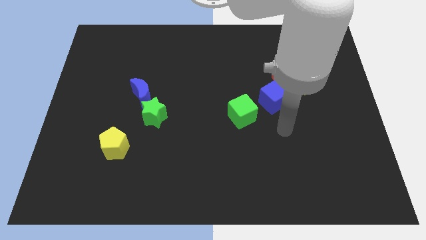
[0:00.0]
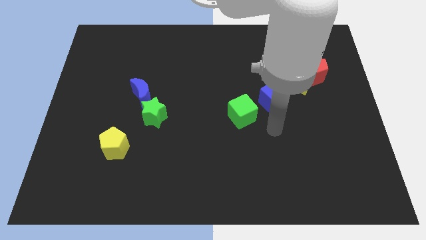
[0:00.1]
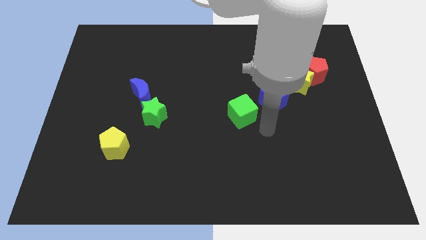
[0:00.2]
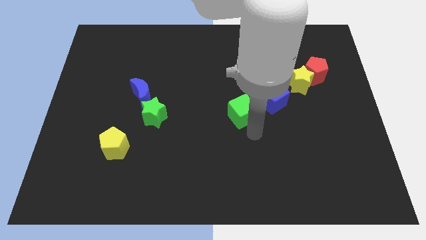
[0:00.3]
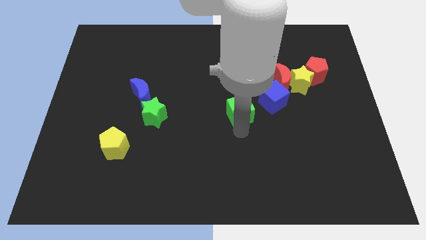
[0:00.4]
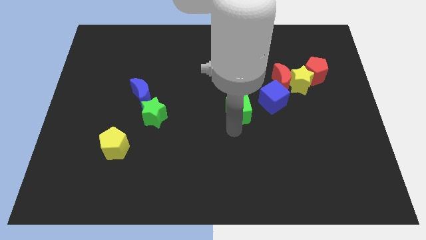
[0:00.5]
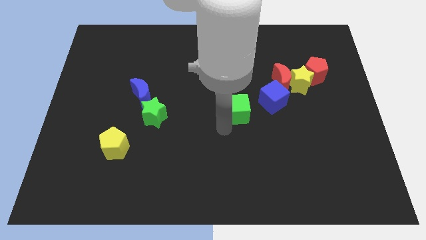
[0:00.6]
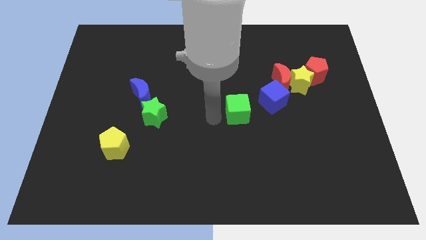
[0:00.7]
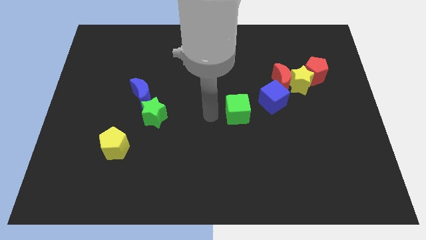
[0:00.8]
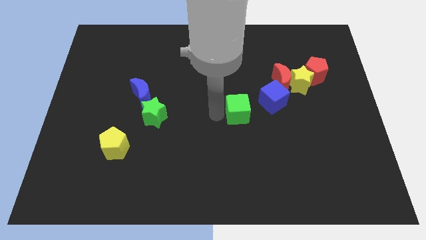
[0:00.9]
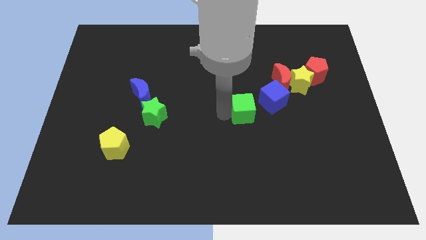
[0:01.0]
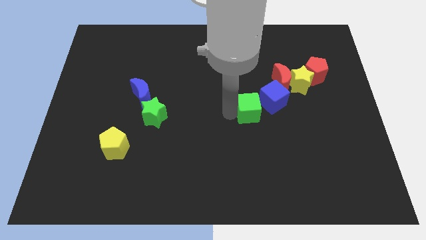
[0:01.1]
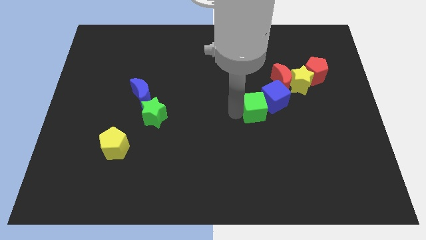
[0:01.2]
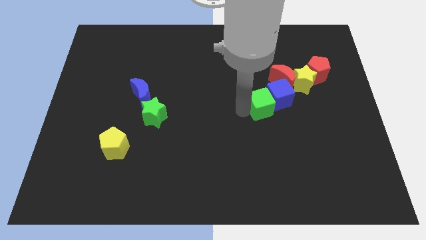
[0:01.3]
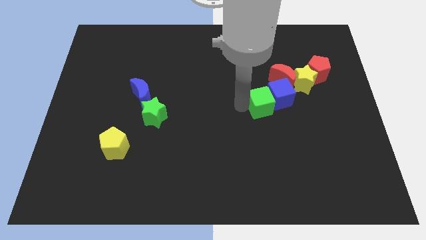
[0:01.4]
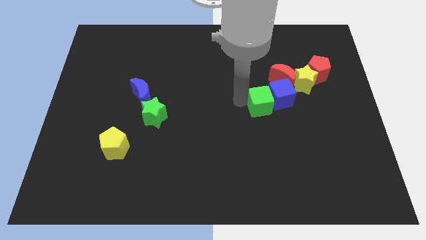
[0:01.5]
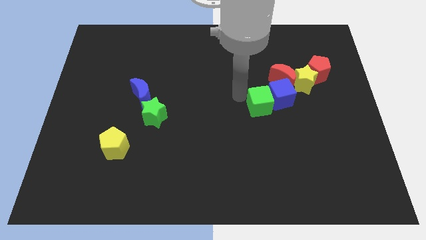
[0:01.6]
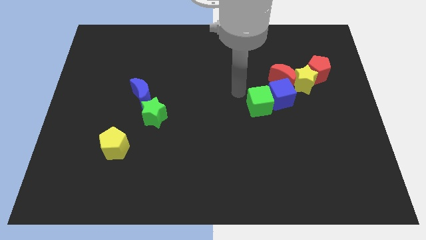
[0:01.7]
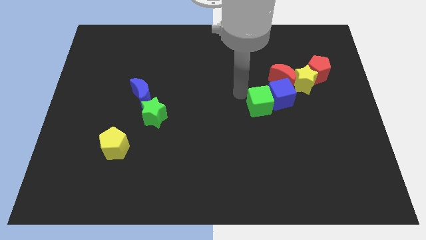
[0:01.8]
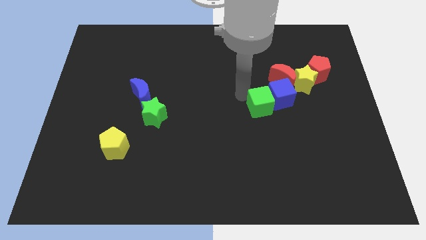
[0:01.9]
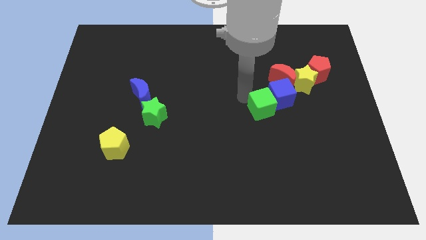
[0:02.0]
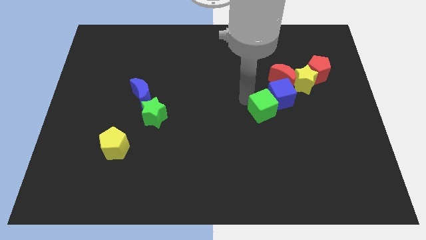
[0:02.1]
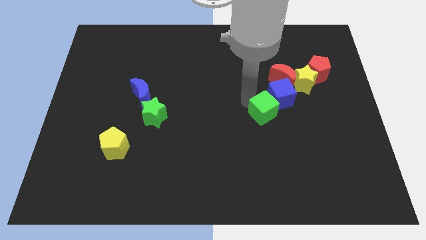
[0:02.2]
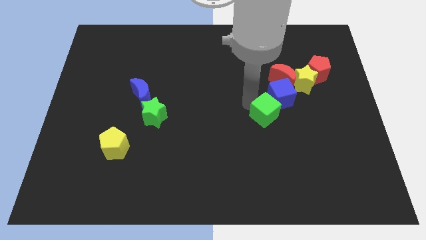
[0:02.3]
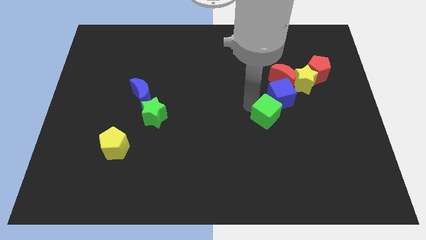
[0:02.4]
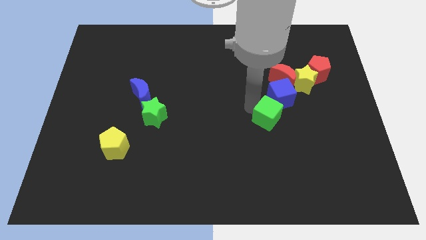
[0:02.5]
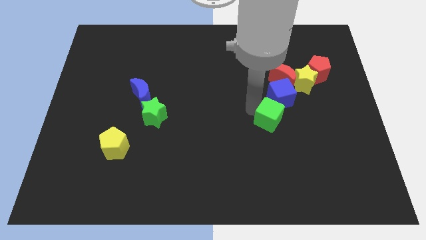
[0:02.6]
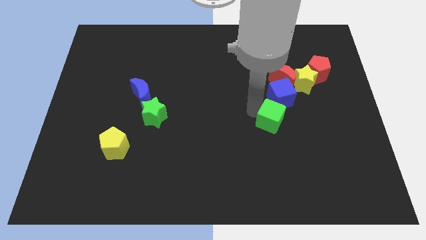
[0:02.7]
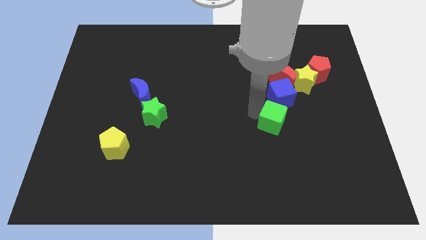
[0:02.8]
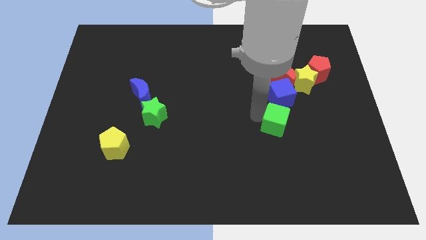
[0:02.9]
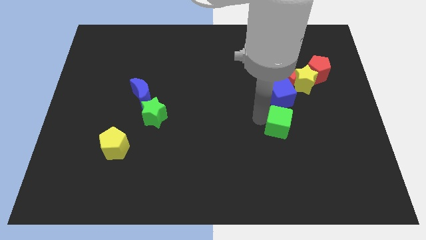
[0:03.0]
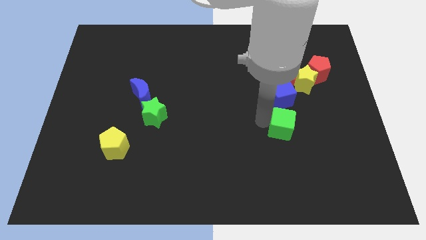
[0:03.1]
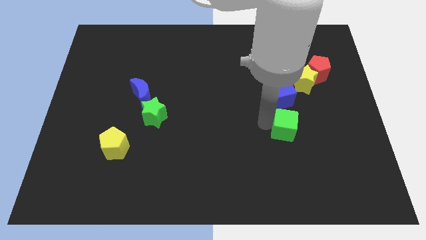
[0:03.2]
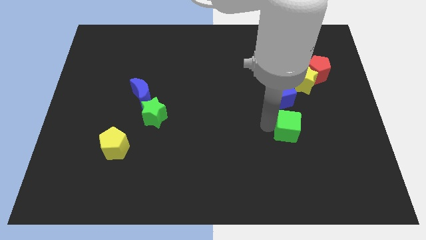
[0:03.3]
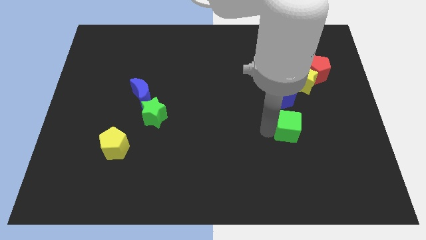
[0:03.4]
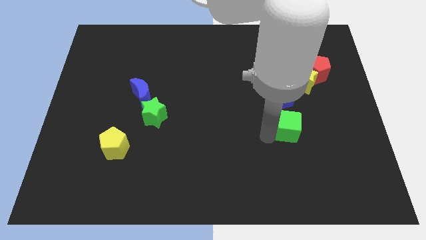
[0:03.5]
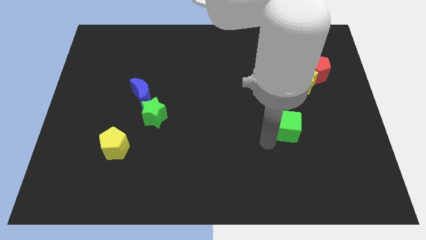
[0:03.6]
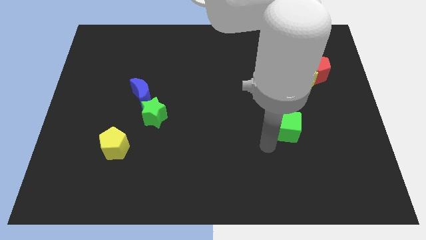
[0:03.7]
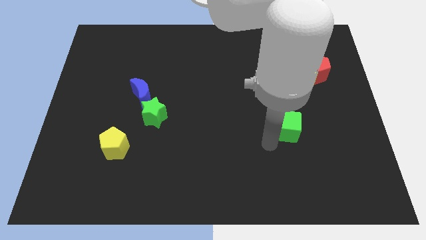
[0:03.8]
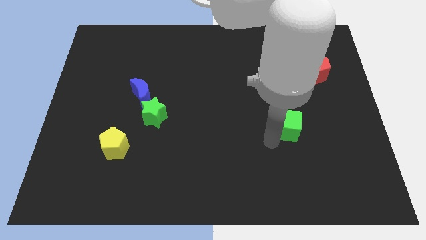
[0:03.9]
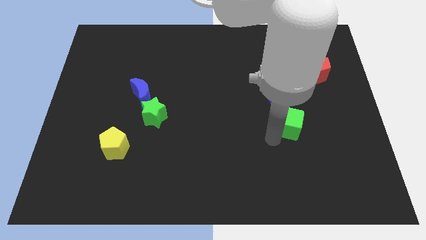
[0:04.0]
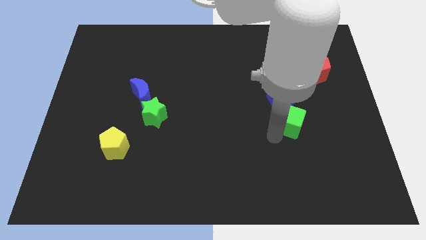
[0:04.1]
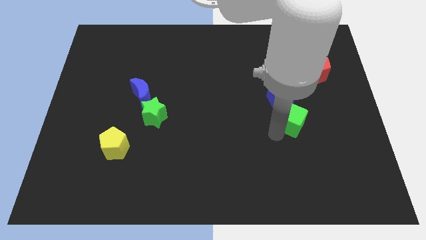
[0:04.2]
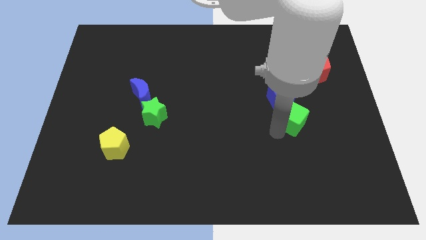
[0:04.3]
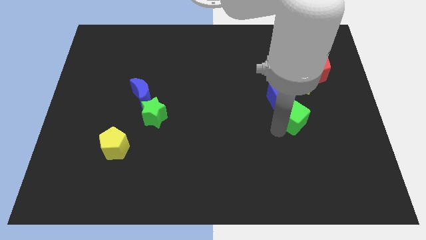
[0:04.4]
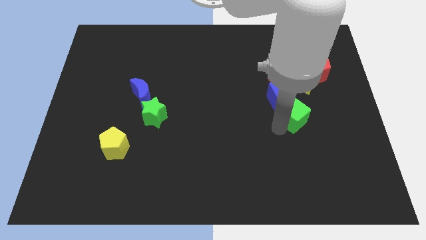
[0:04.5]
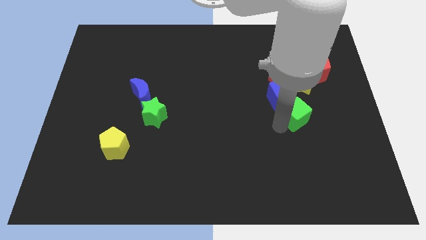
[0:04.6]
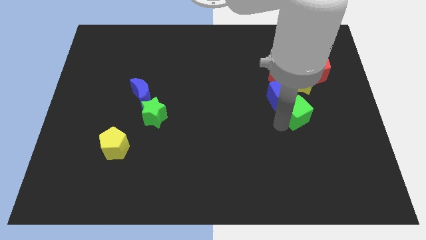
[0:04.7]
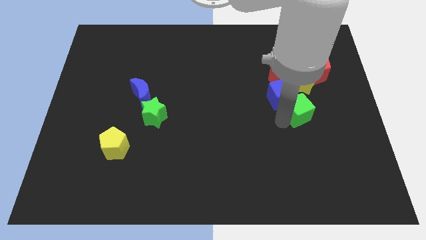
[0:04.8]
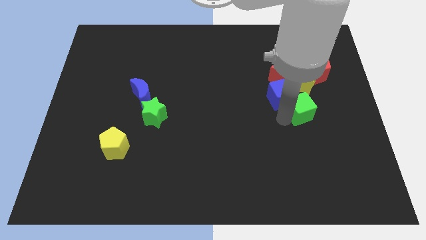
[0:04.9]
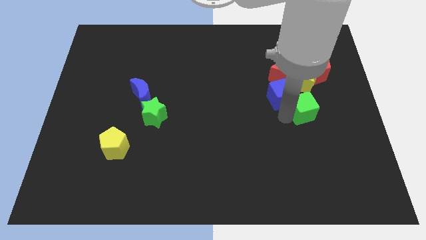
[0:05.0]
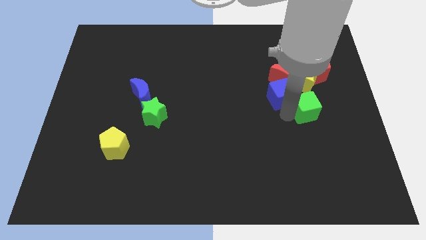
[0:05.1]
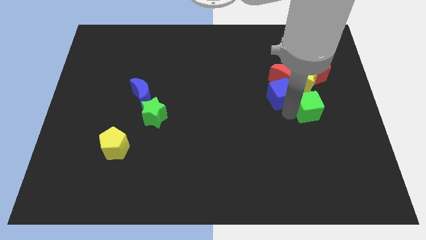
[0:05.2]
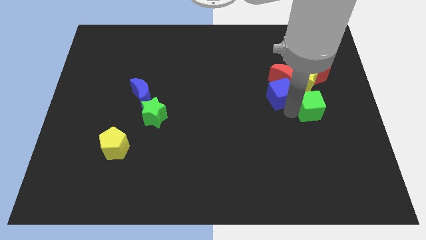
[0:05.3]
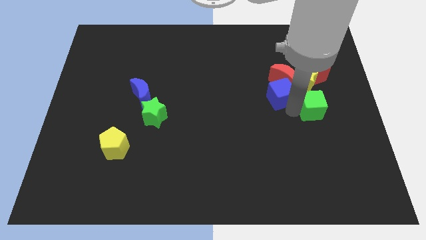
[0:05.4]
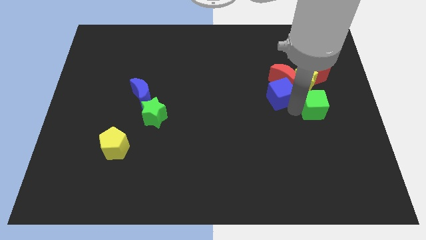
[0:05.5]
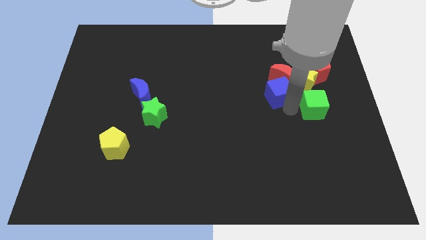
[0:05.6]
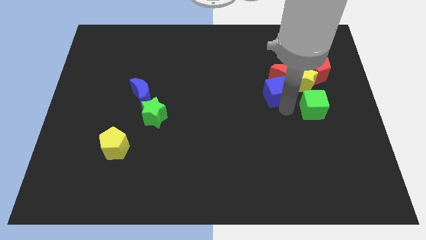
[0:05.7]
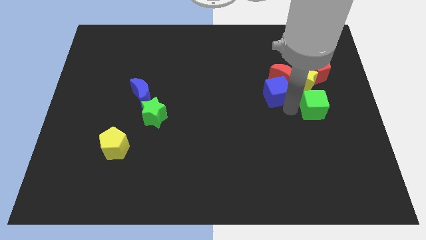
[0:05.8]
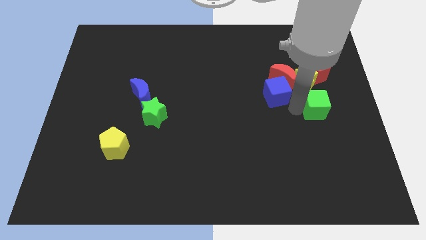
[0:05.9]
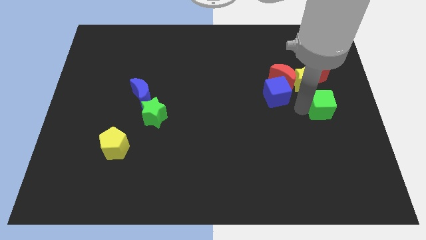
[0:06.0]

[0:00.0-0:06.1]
push the green cube to the center right

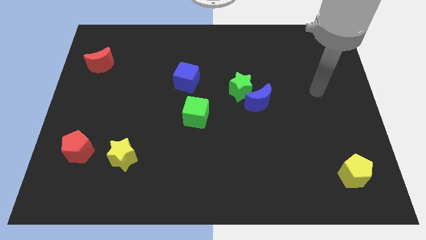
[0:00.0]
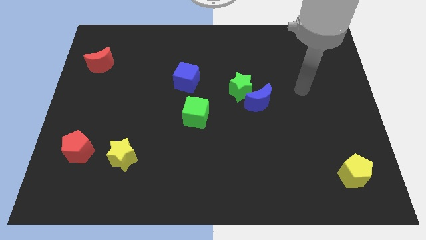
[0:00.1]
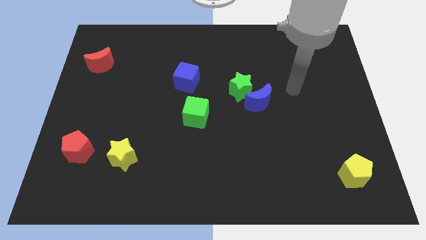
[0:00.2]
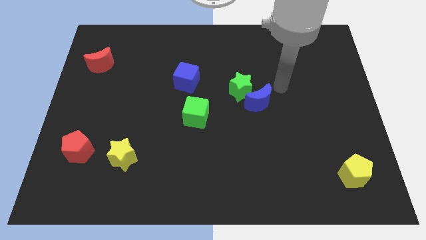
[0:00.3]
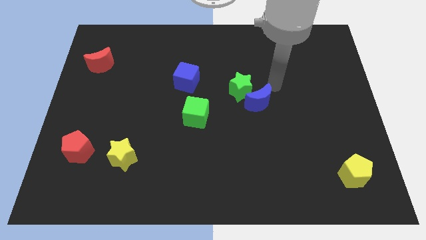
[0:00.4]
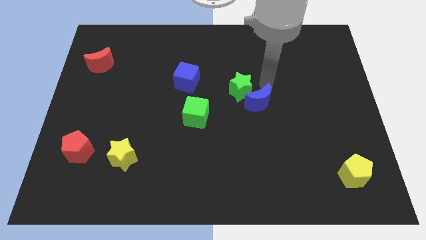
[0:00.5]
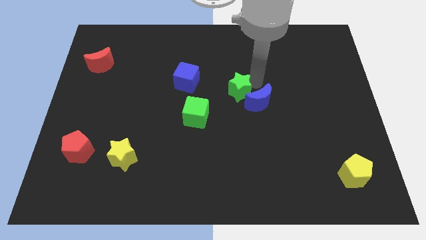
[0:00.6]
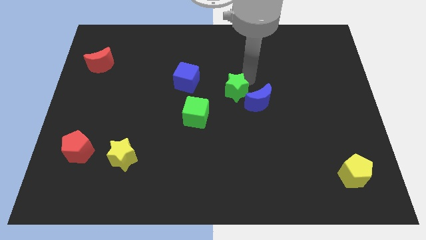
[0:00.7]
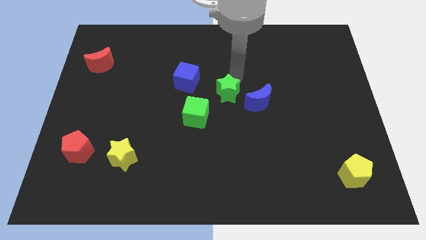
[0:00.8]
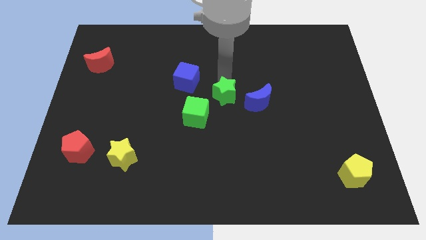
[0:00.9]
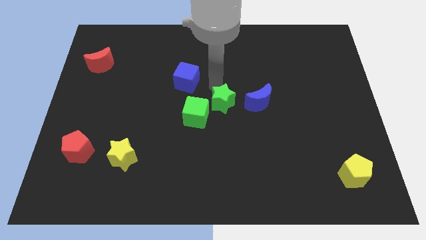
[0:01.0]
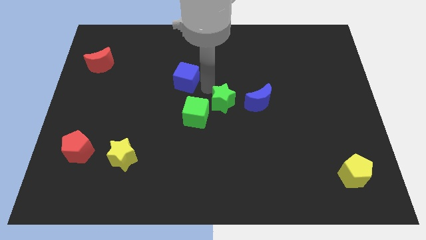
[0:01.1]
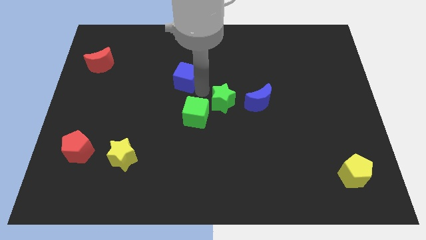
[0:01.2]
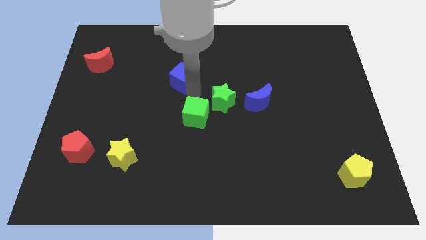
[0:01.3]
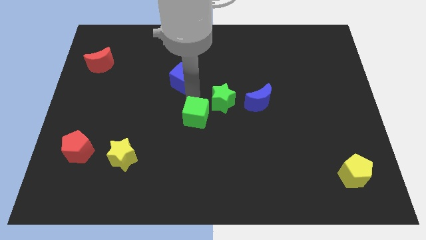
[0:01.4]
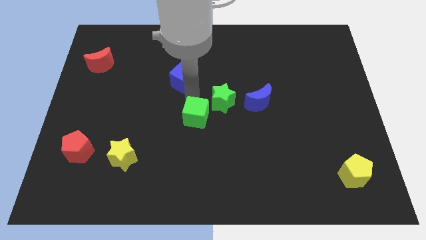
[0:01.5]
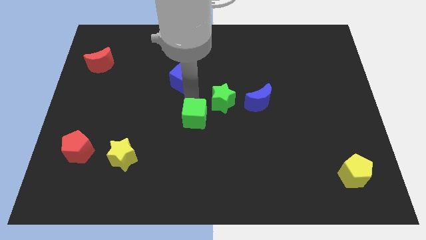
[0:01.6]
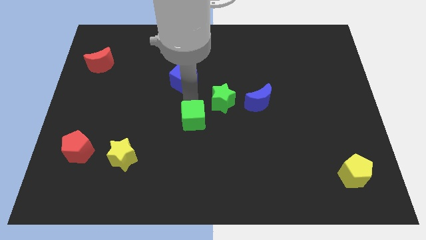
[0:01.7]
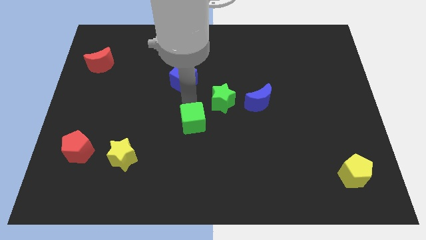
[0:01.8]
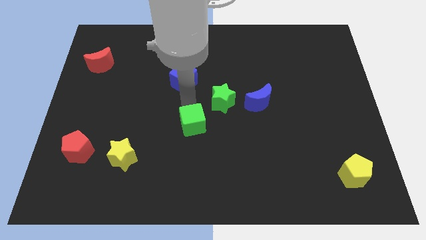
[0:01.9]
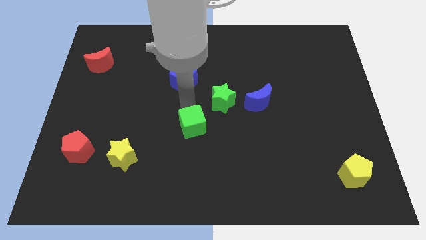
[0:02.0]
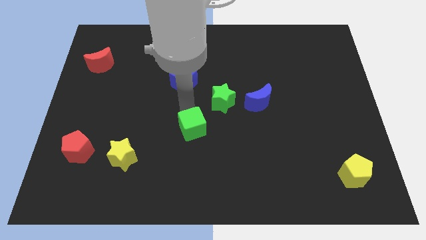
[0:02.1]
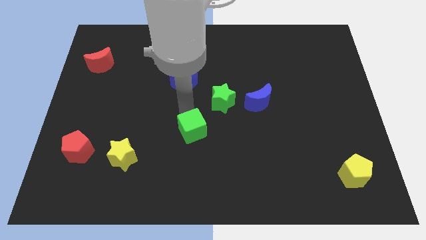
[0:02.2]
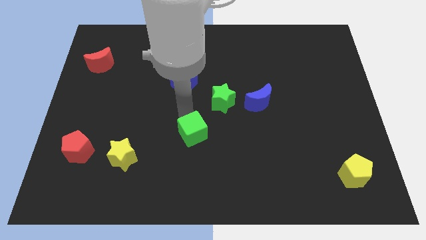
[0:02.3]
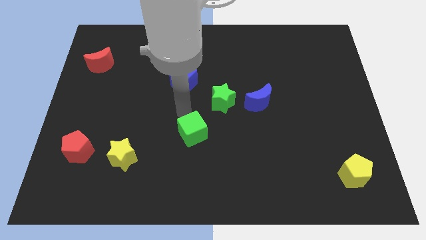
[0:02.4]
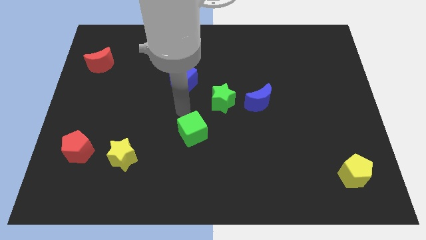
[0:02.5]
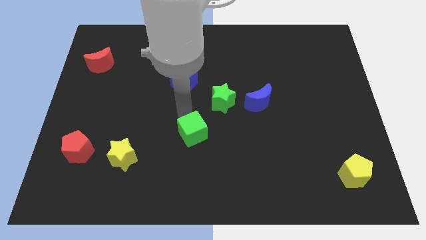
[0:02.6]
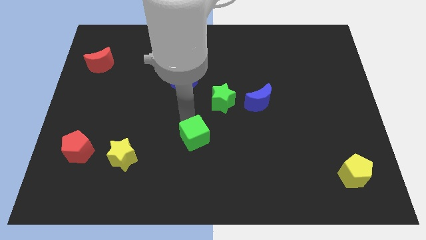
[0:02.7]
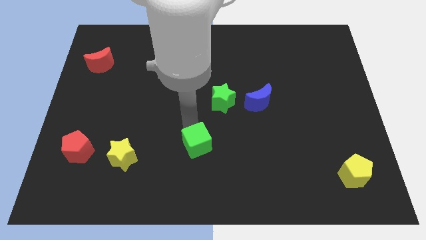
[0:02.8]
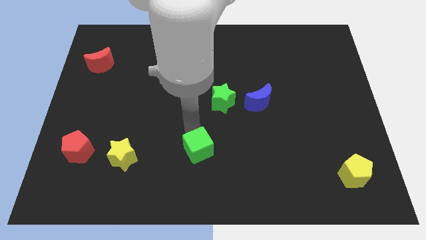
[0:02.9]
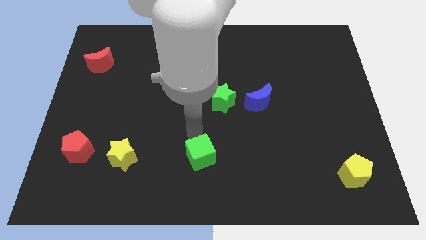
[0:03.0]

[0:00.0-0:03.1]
slide the green cube to the bottom
